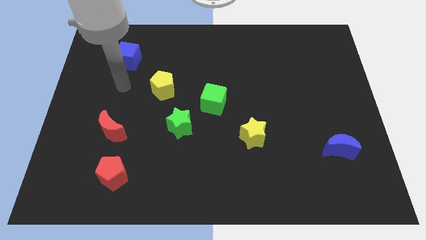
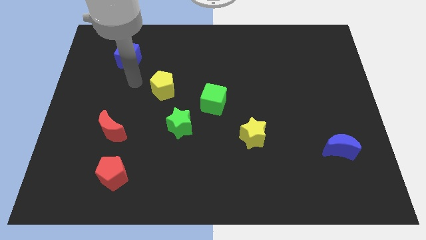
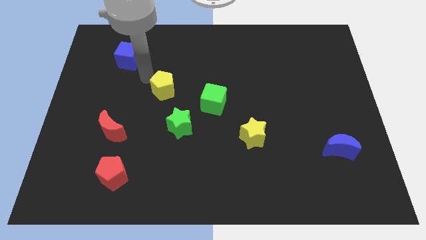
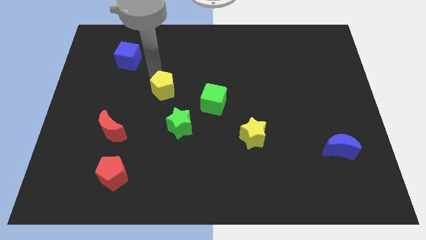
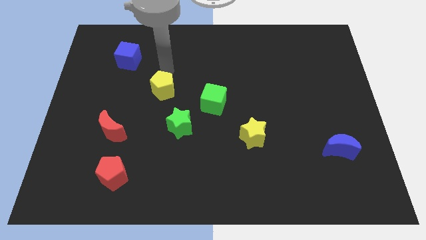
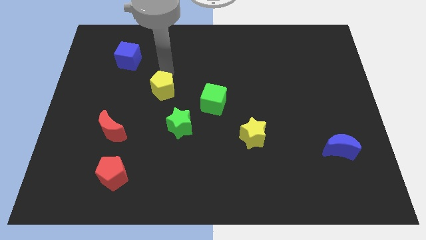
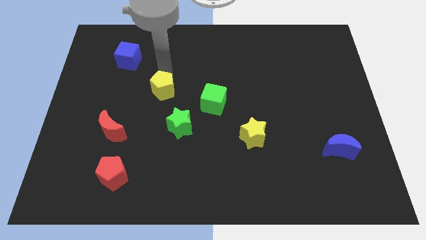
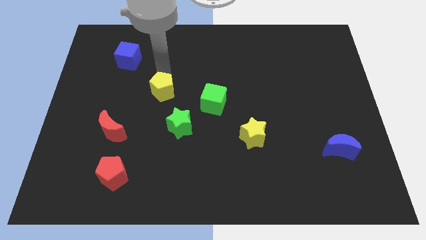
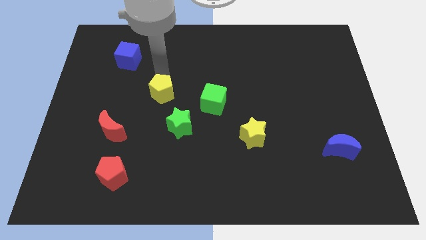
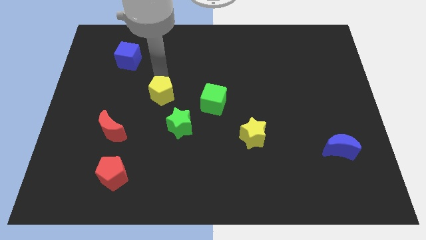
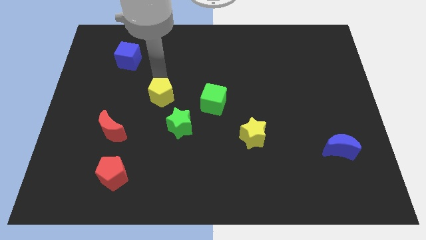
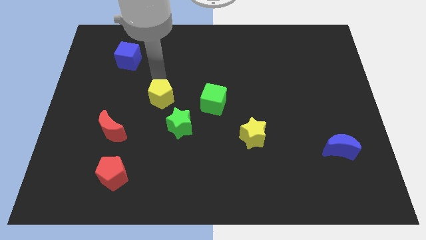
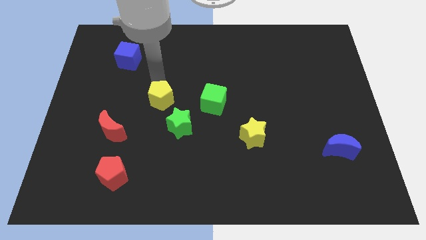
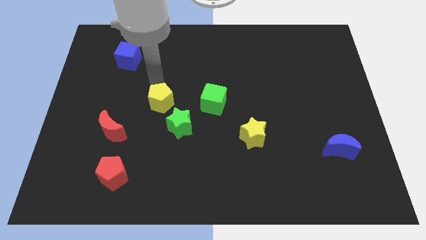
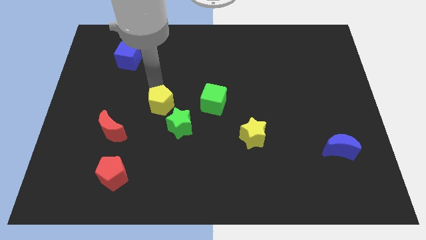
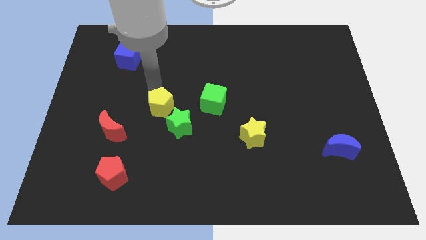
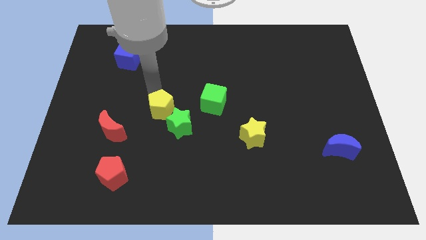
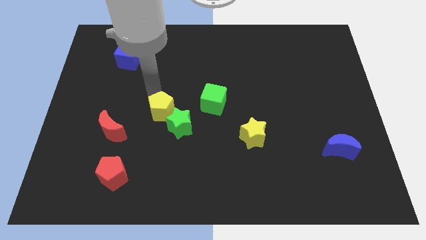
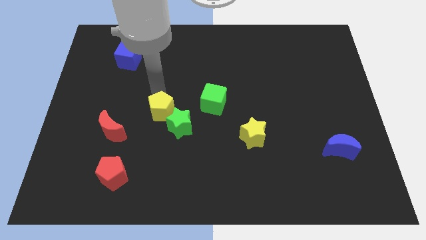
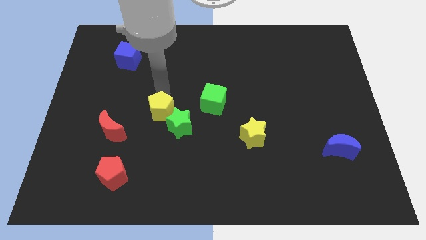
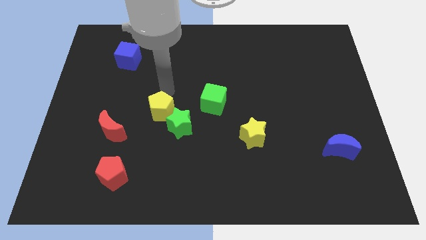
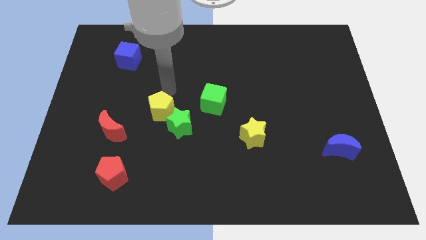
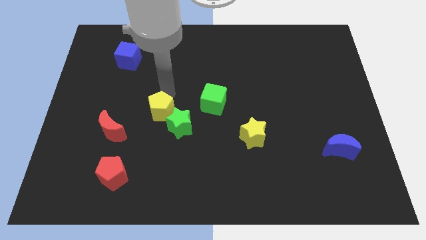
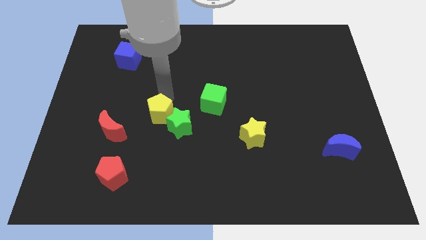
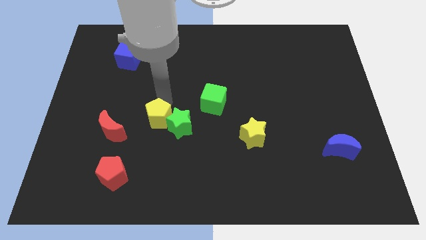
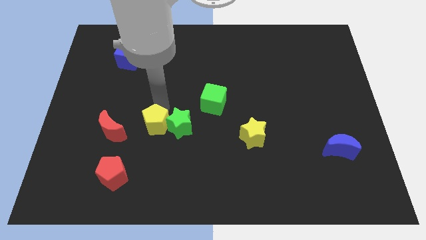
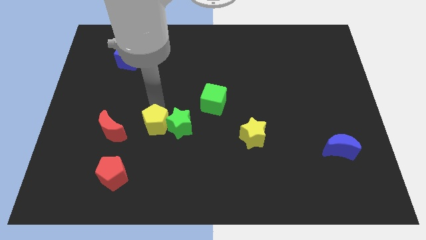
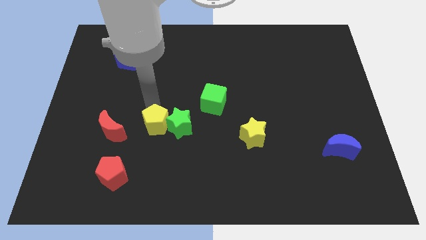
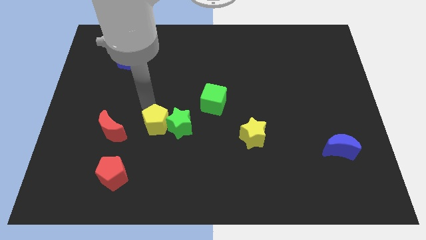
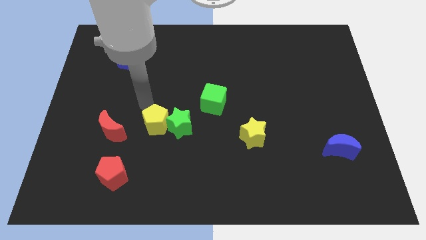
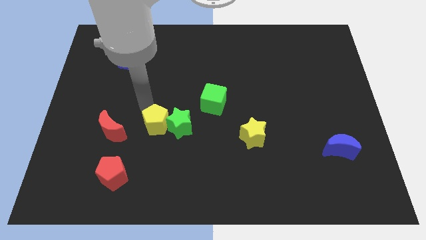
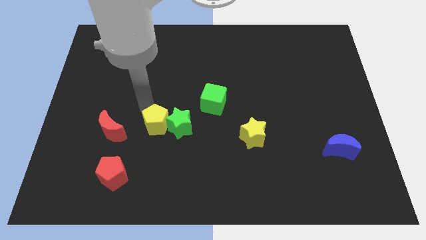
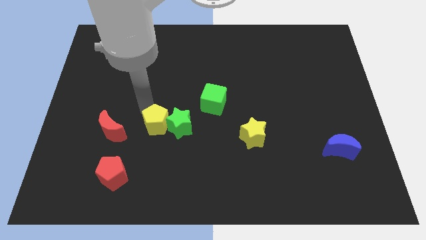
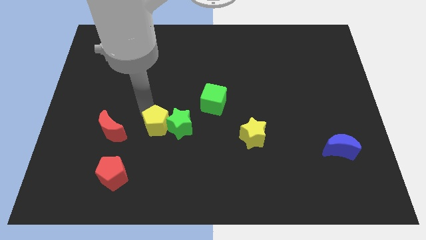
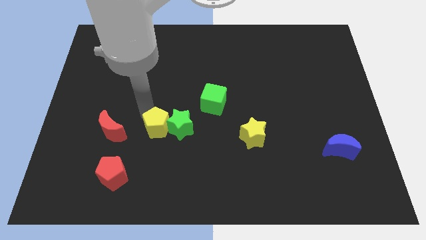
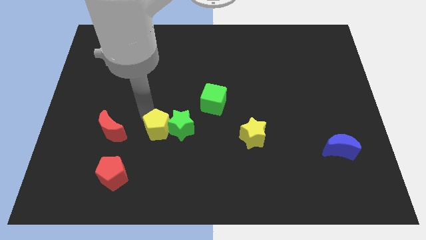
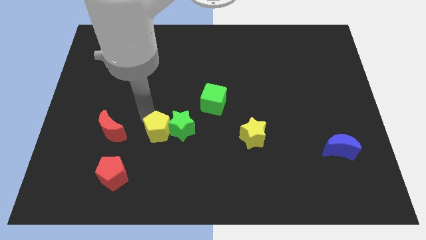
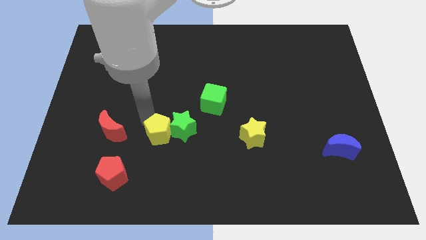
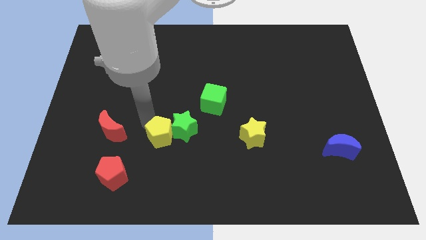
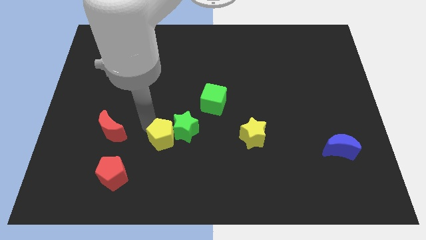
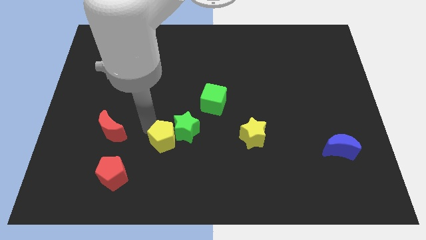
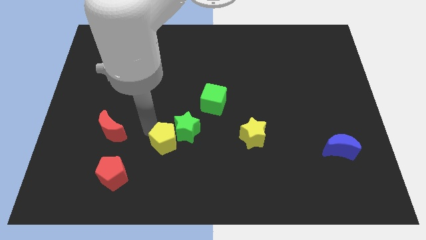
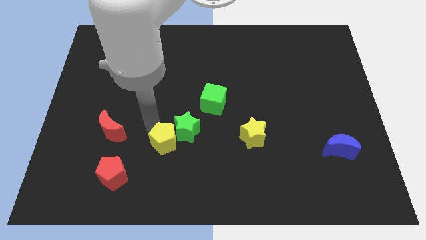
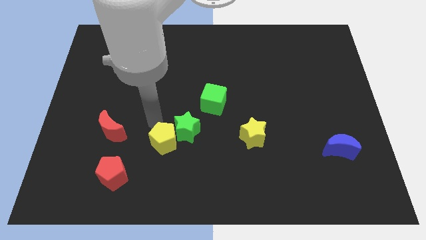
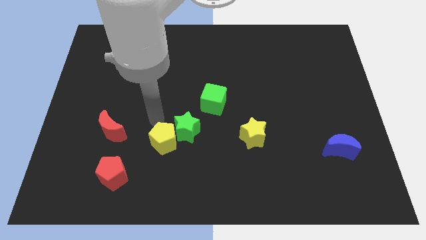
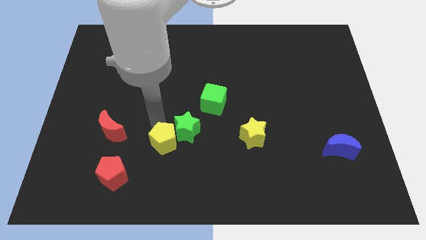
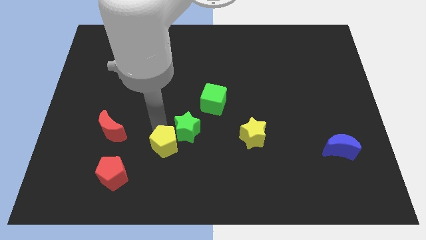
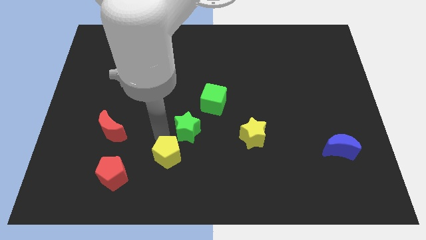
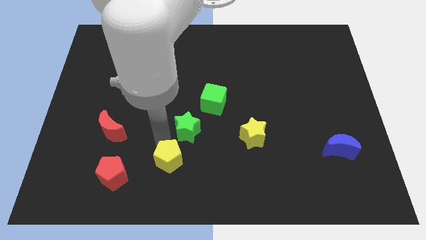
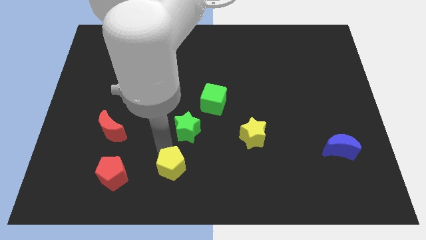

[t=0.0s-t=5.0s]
push the yellow pentagon to the bottom side

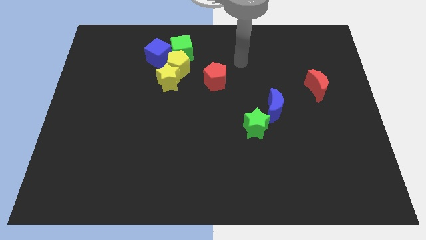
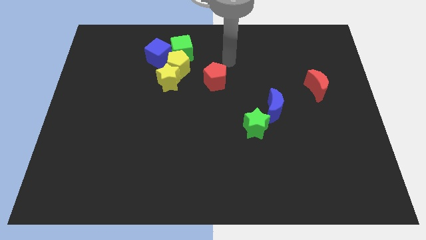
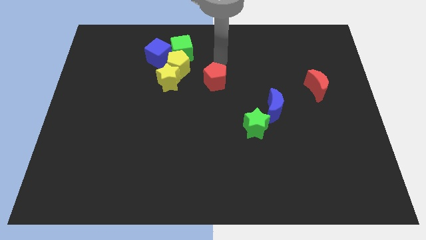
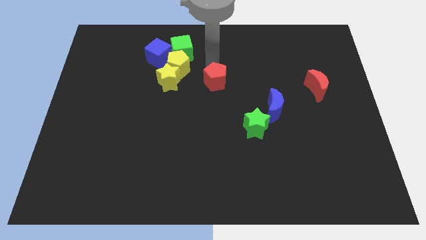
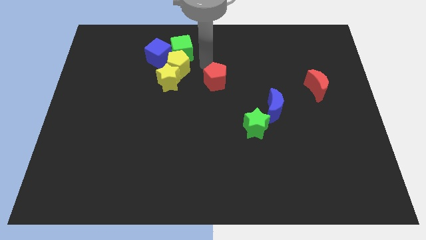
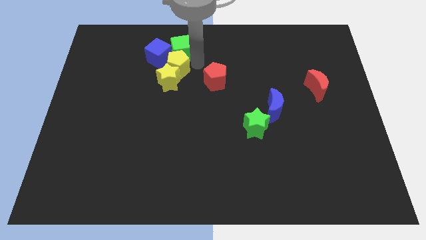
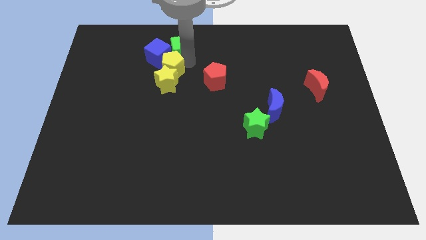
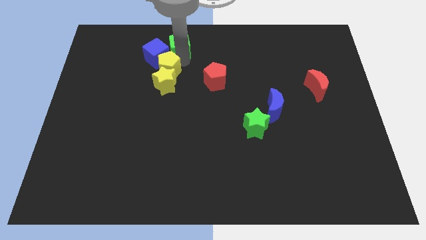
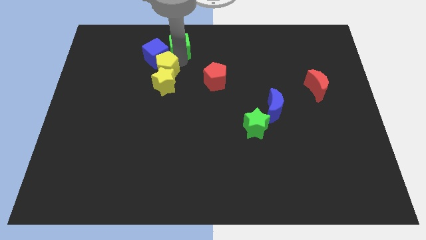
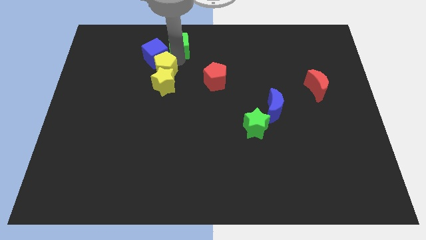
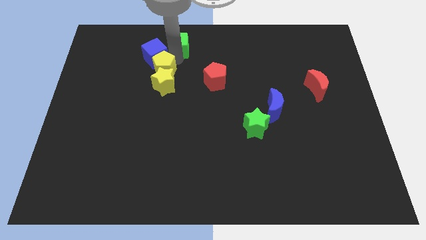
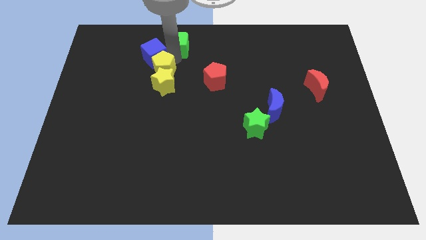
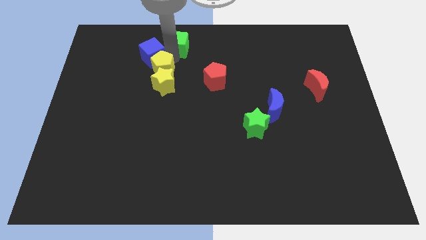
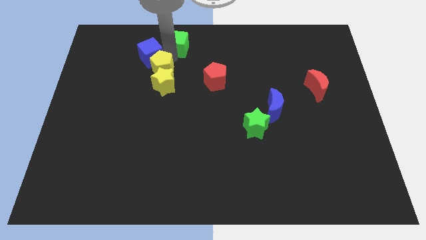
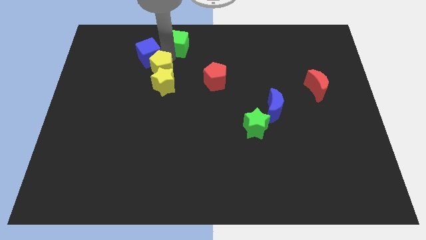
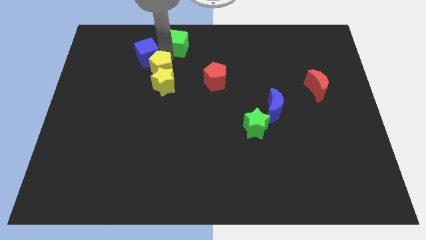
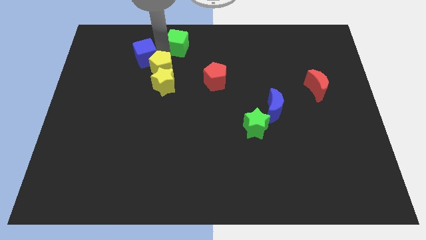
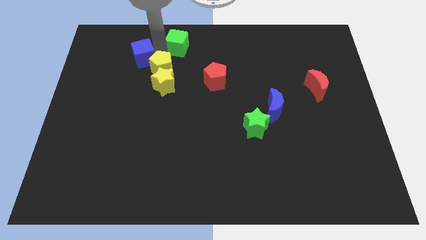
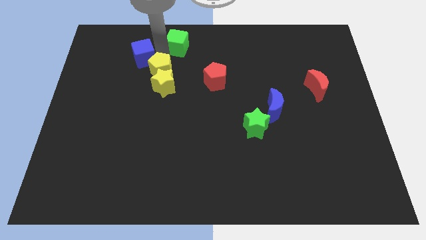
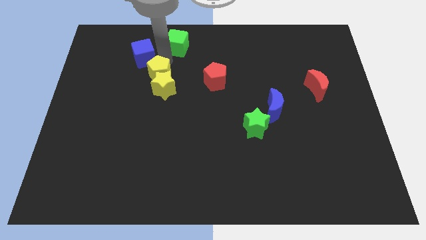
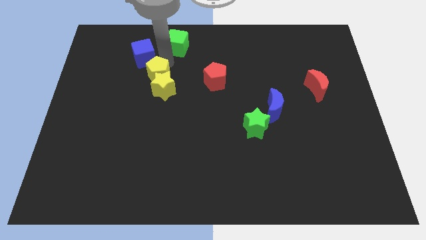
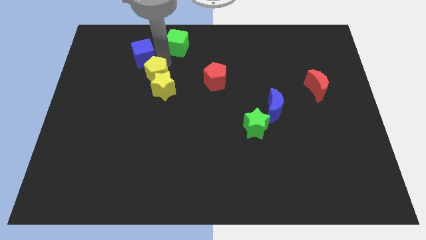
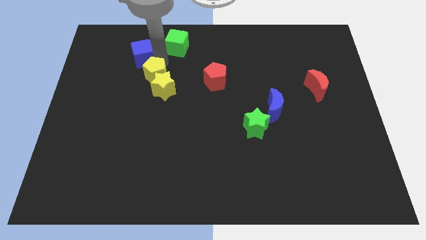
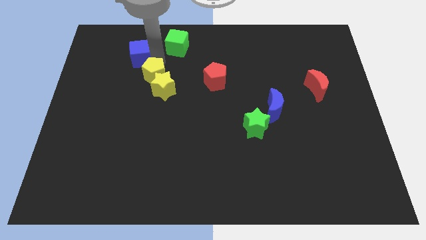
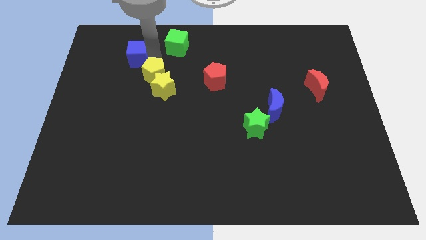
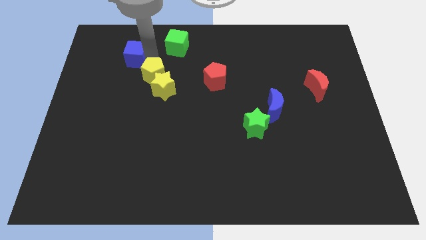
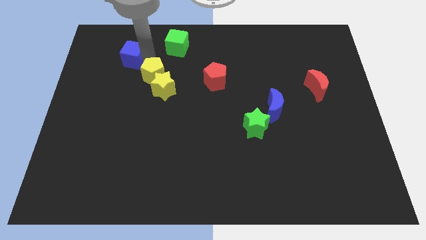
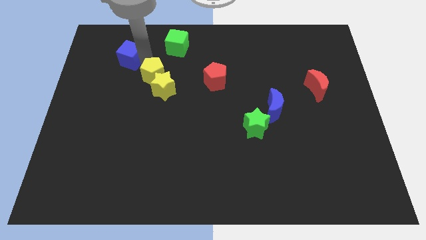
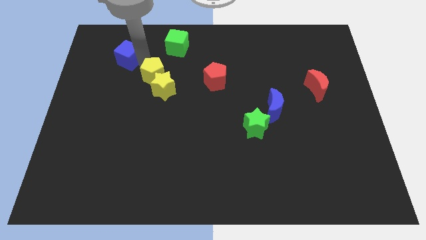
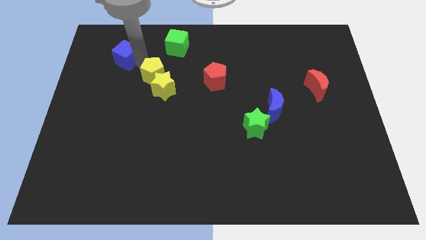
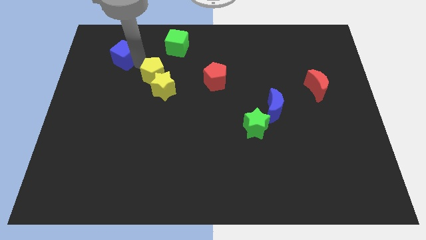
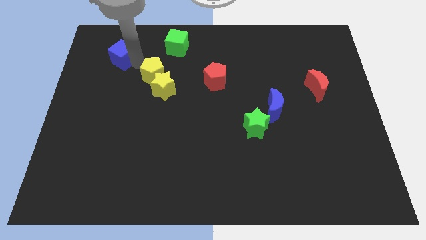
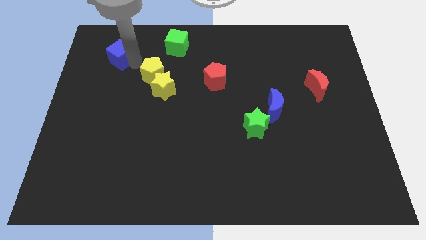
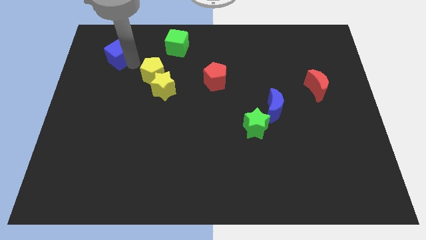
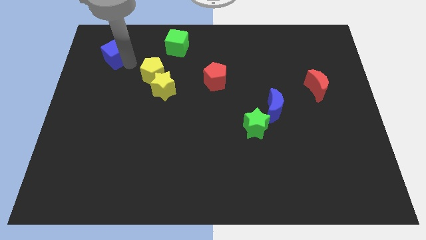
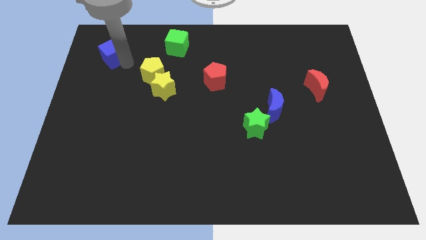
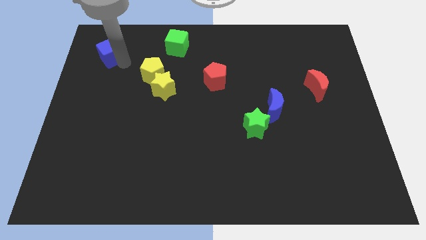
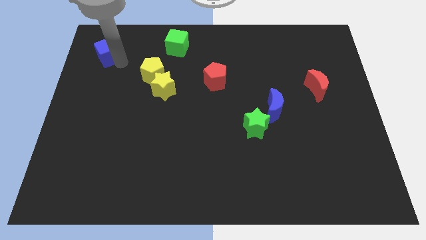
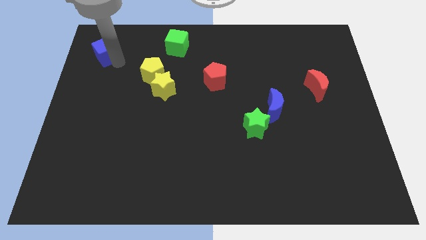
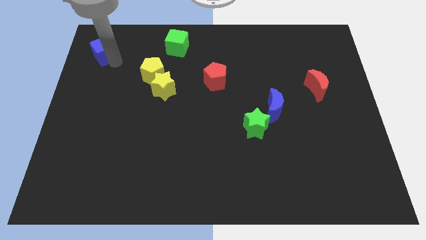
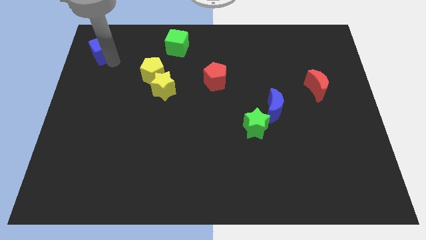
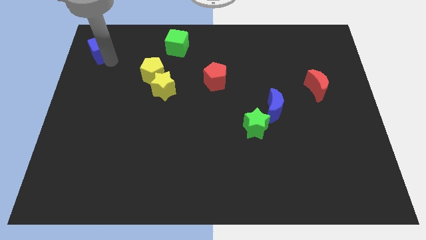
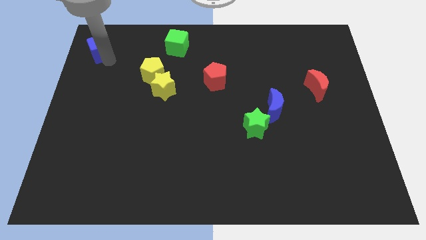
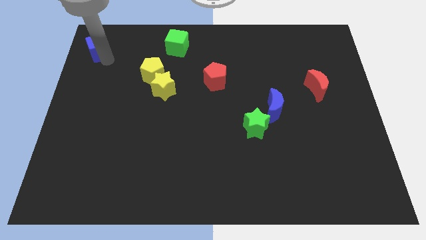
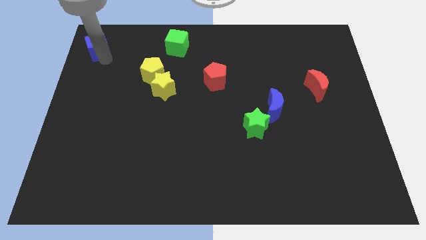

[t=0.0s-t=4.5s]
push the blue cube to the top left of the board
